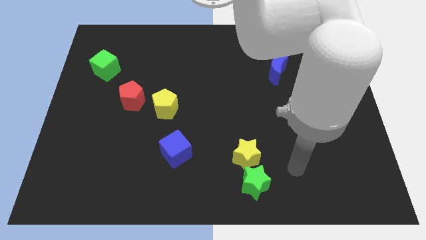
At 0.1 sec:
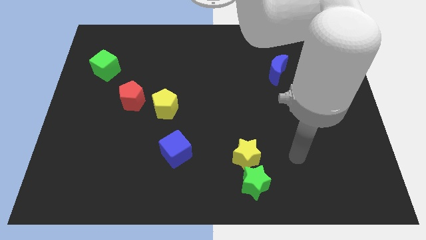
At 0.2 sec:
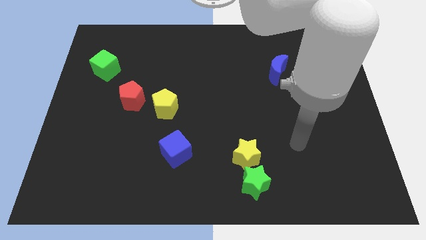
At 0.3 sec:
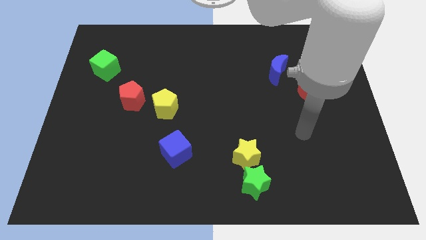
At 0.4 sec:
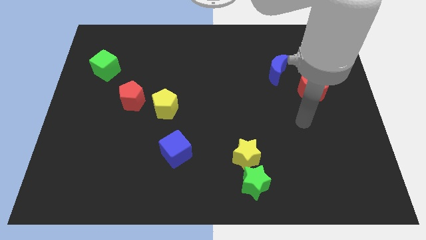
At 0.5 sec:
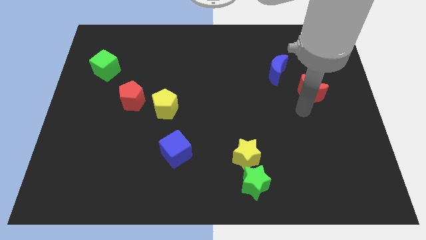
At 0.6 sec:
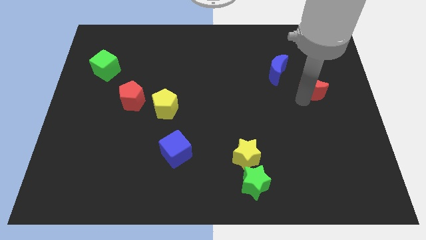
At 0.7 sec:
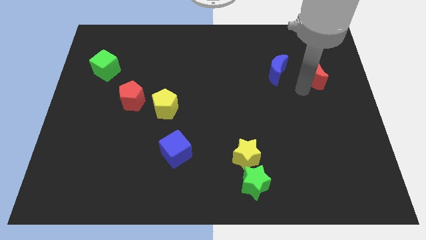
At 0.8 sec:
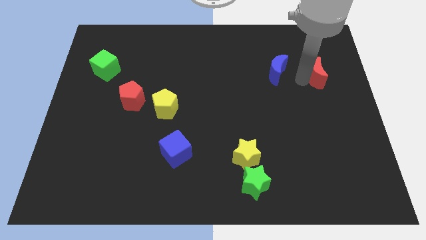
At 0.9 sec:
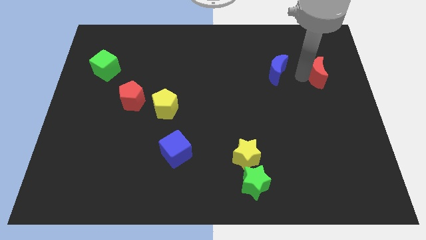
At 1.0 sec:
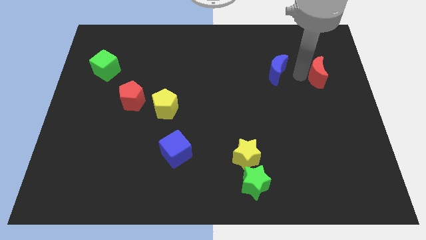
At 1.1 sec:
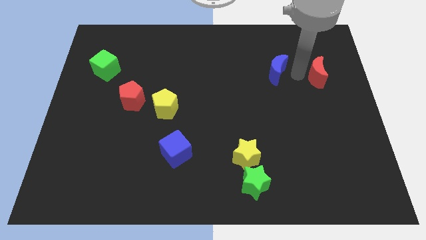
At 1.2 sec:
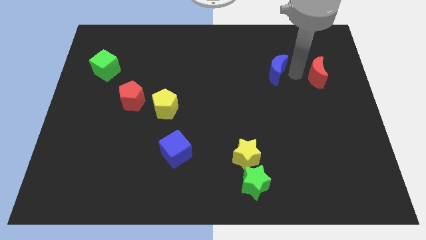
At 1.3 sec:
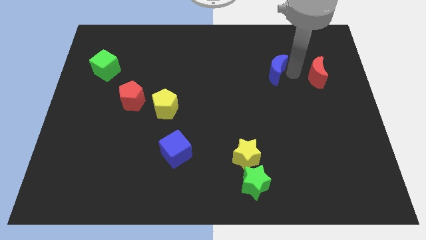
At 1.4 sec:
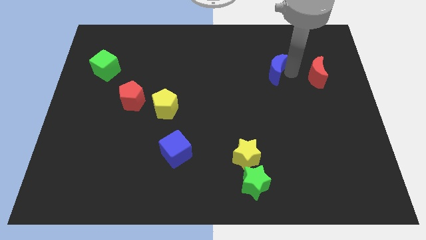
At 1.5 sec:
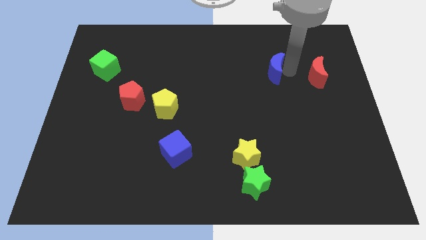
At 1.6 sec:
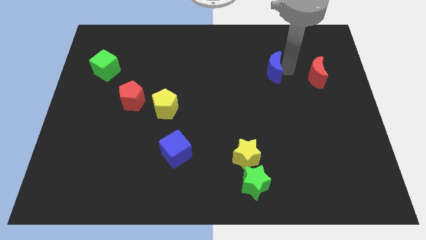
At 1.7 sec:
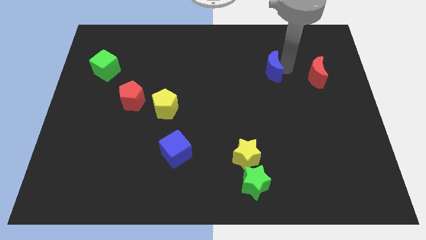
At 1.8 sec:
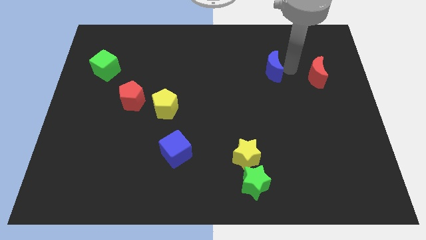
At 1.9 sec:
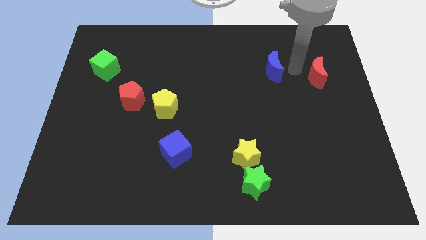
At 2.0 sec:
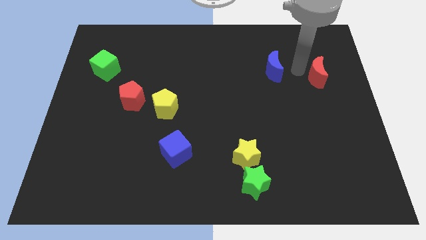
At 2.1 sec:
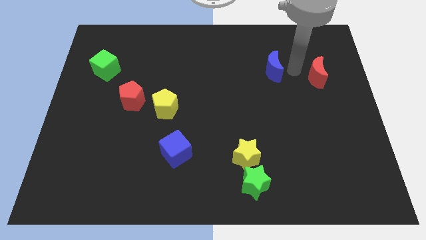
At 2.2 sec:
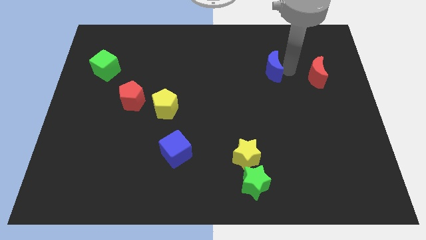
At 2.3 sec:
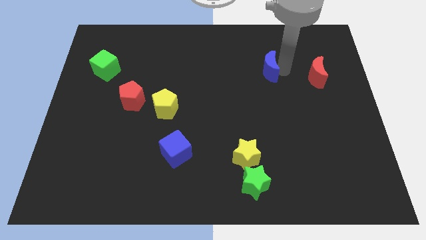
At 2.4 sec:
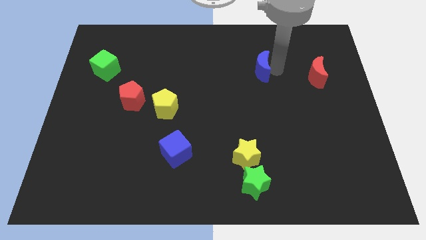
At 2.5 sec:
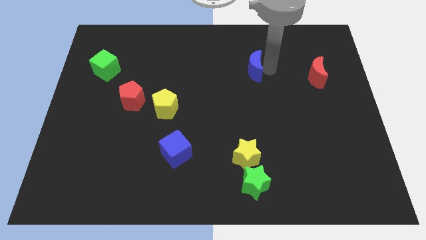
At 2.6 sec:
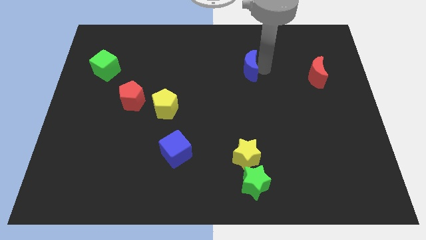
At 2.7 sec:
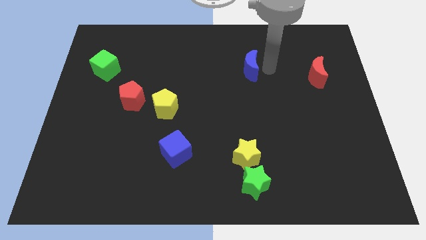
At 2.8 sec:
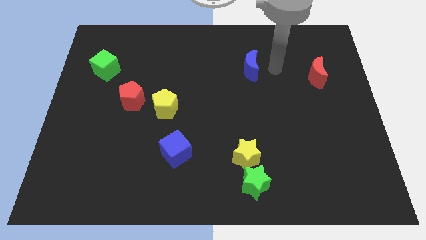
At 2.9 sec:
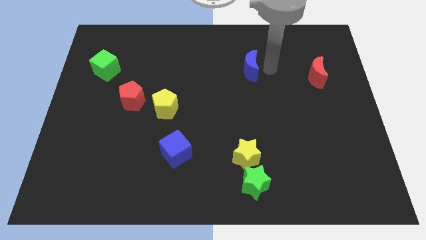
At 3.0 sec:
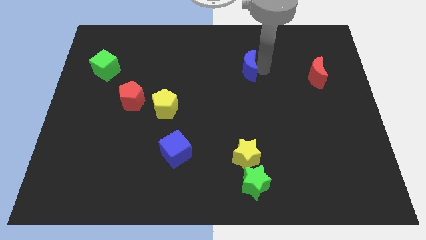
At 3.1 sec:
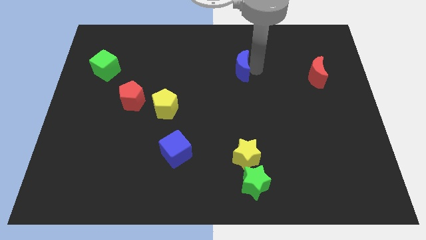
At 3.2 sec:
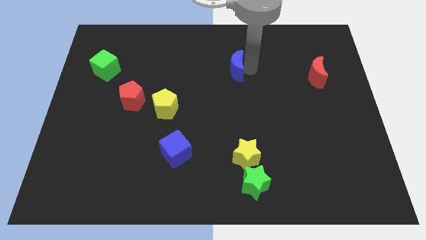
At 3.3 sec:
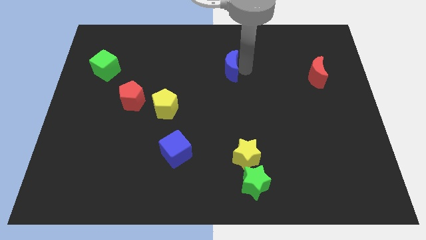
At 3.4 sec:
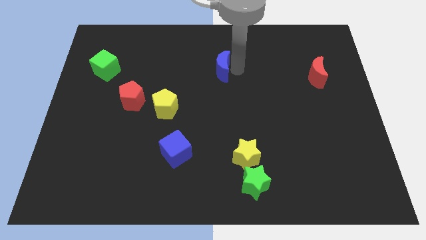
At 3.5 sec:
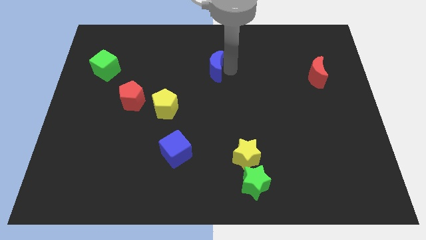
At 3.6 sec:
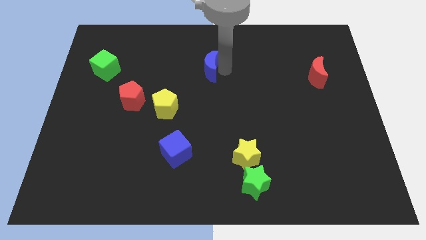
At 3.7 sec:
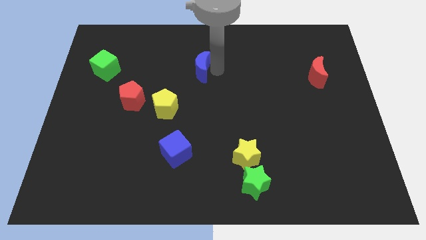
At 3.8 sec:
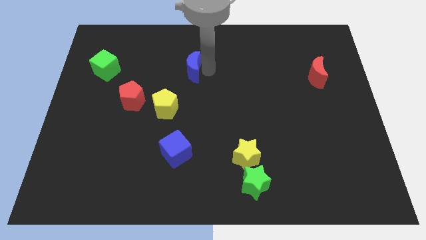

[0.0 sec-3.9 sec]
slide the blue moon to the left

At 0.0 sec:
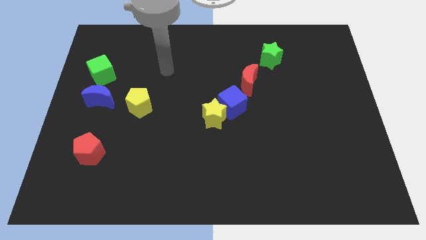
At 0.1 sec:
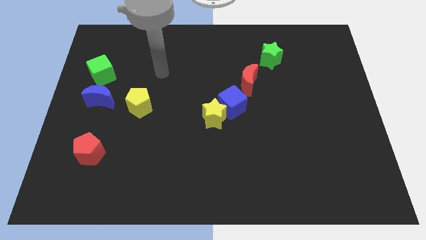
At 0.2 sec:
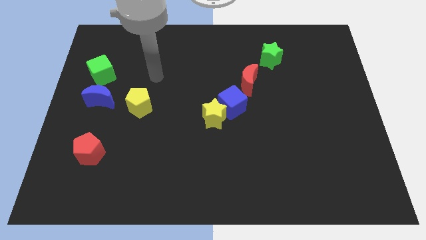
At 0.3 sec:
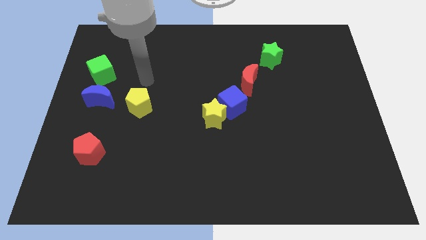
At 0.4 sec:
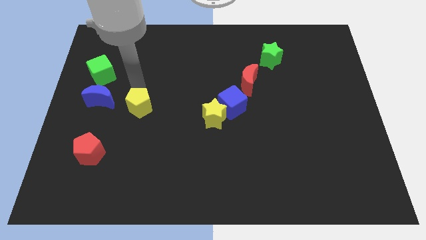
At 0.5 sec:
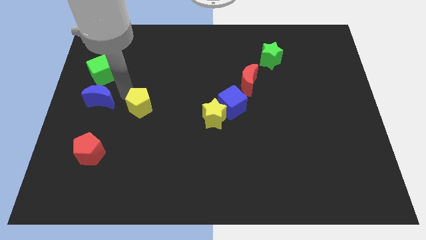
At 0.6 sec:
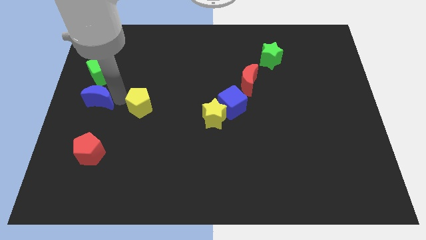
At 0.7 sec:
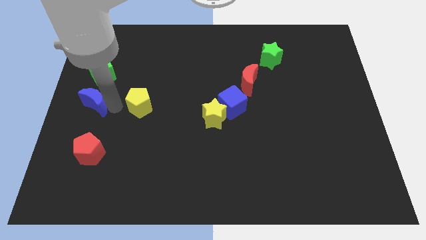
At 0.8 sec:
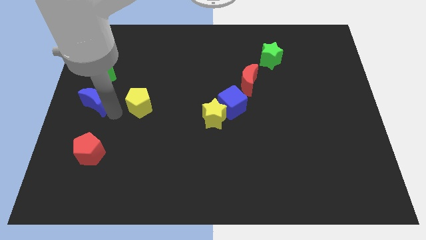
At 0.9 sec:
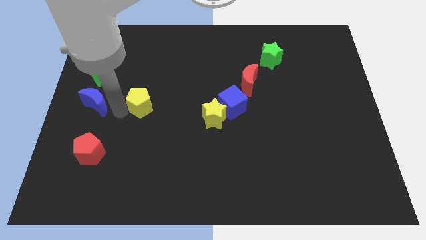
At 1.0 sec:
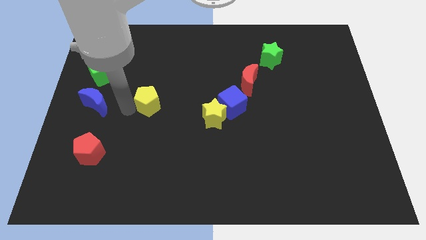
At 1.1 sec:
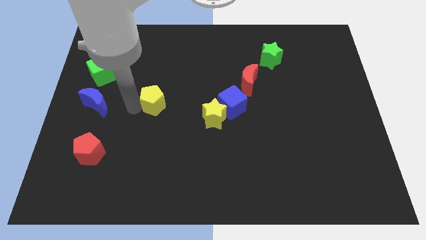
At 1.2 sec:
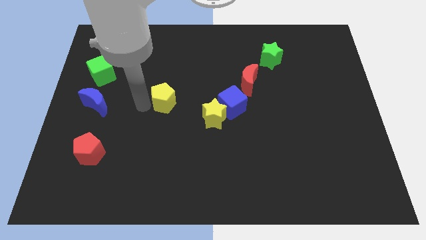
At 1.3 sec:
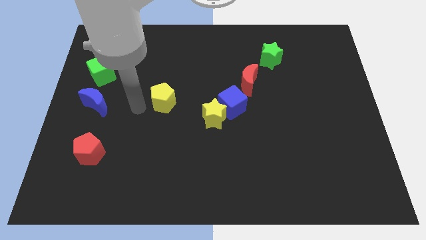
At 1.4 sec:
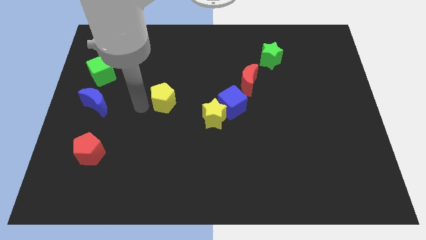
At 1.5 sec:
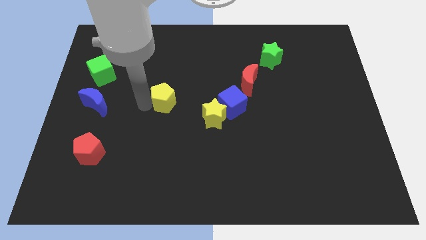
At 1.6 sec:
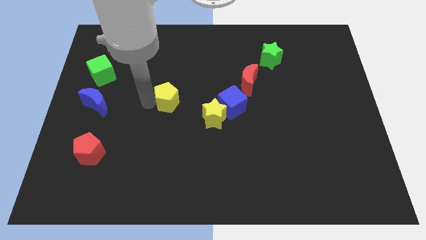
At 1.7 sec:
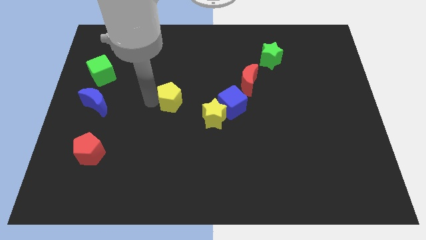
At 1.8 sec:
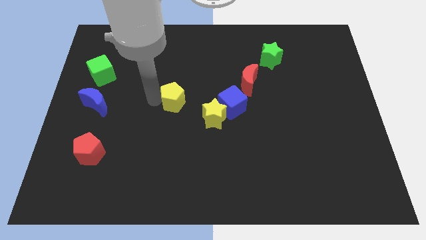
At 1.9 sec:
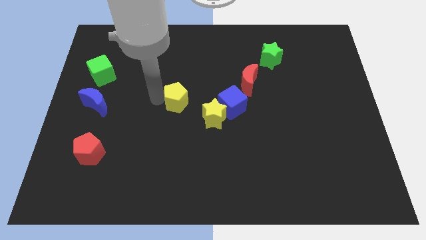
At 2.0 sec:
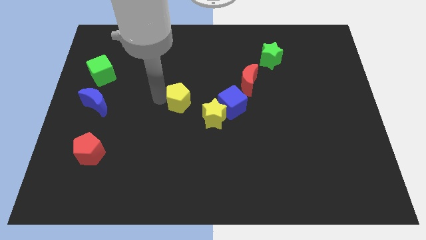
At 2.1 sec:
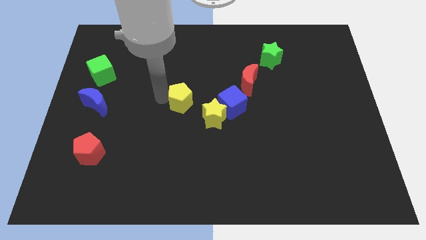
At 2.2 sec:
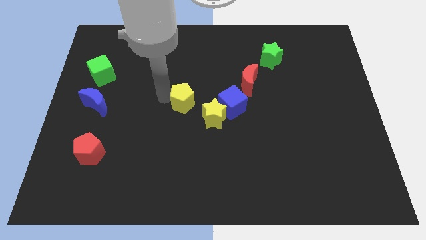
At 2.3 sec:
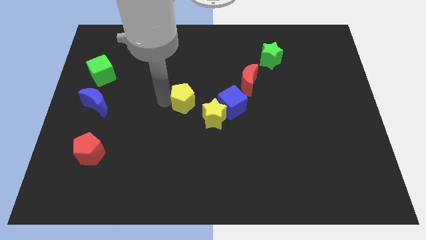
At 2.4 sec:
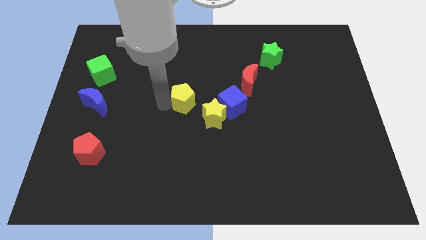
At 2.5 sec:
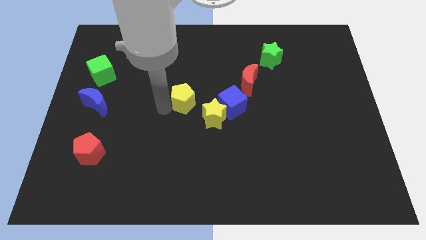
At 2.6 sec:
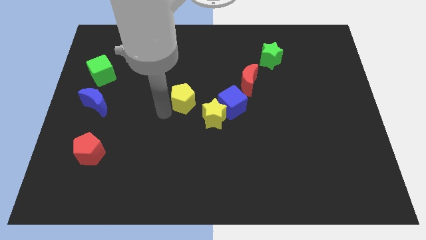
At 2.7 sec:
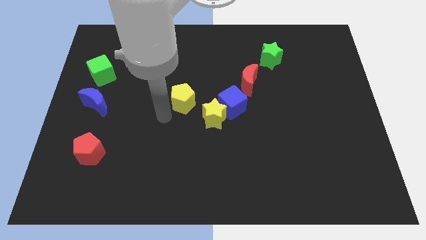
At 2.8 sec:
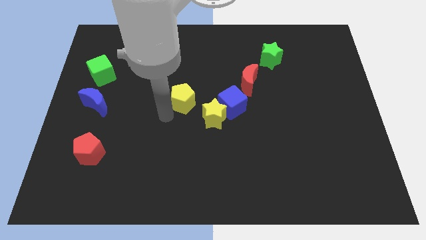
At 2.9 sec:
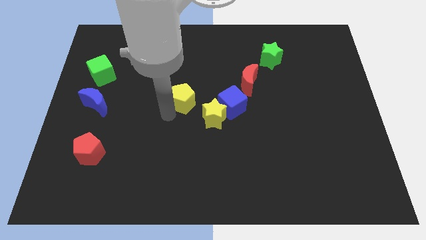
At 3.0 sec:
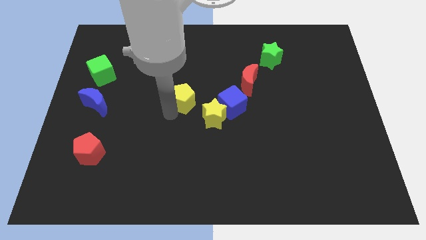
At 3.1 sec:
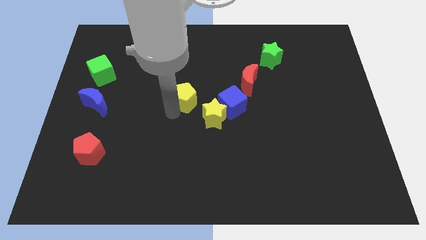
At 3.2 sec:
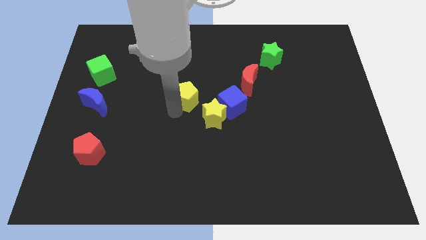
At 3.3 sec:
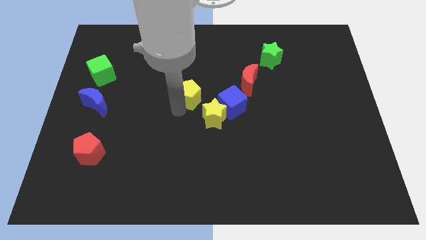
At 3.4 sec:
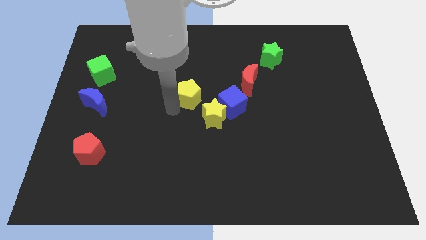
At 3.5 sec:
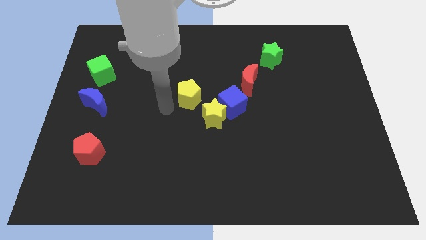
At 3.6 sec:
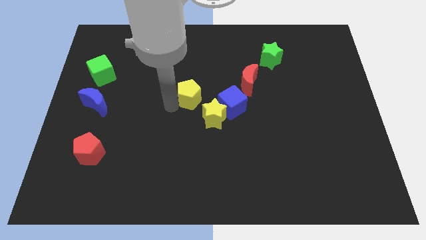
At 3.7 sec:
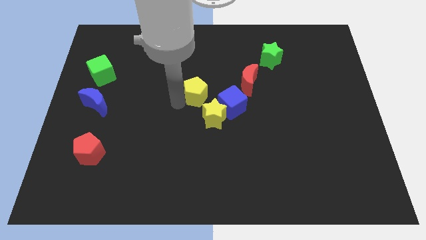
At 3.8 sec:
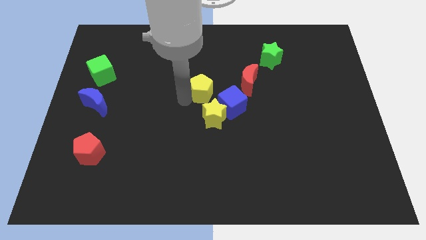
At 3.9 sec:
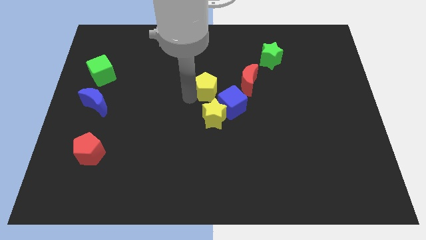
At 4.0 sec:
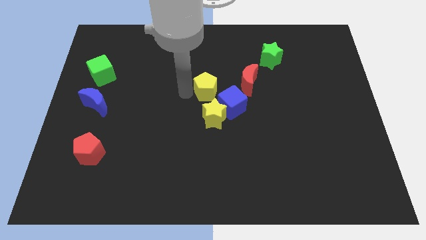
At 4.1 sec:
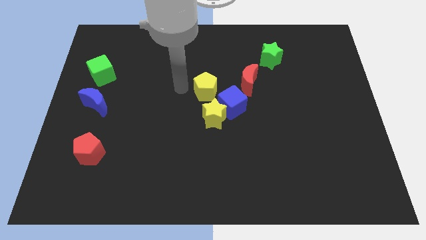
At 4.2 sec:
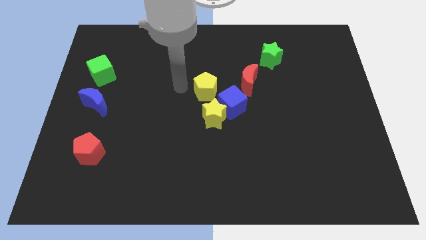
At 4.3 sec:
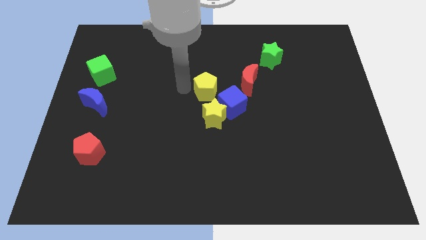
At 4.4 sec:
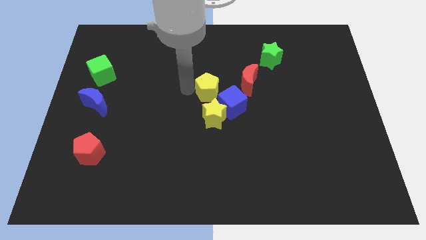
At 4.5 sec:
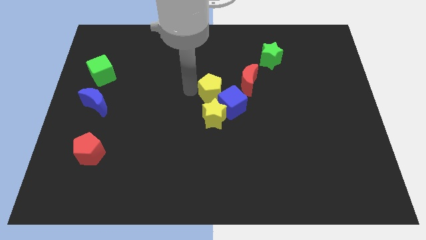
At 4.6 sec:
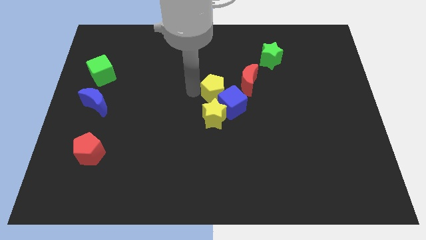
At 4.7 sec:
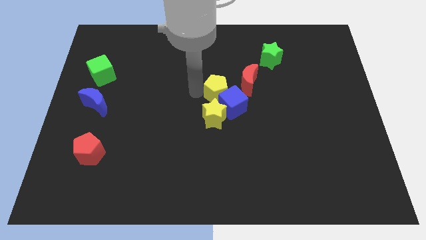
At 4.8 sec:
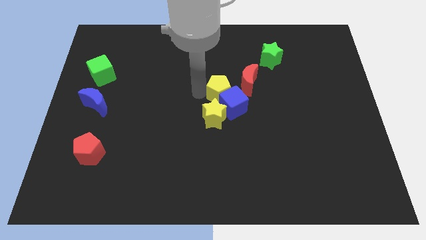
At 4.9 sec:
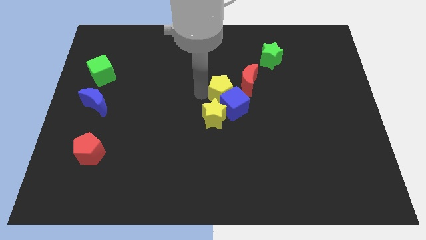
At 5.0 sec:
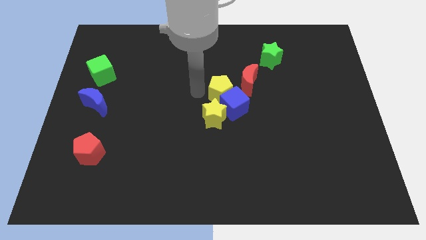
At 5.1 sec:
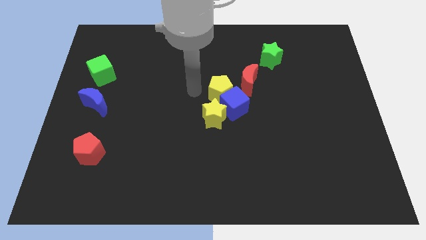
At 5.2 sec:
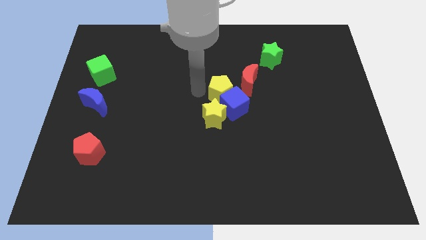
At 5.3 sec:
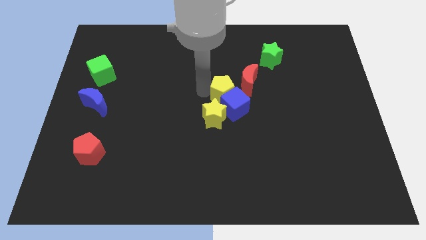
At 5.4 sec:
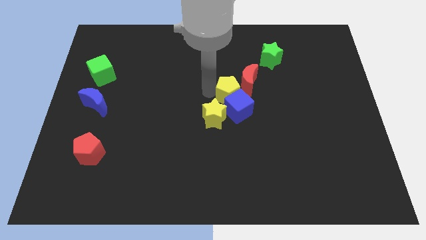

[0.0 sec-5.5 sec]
push the yellow pentagon to the right
